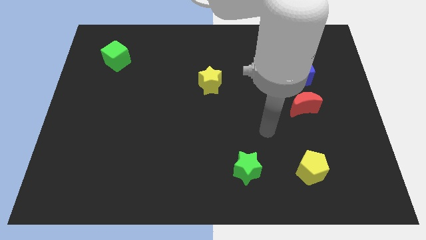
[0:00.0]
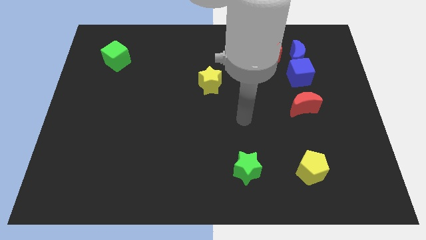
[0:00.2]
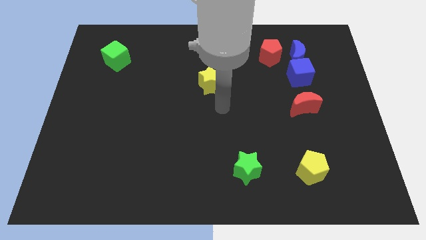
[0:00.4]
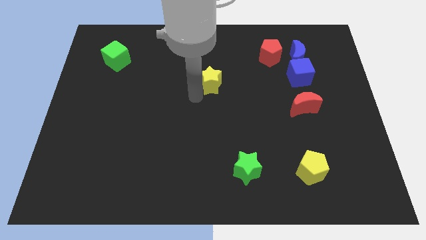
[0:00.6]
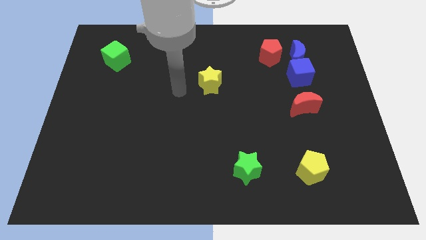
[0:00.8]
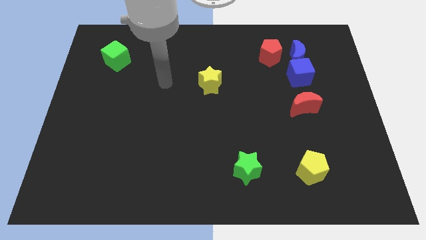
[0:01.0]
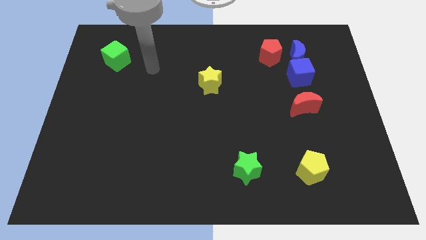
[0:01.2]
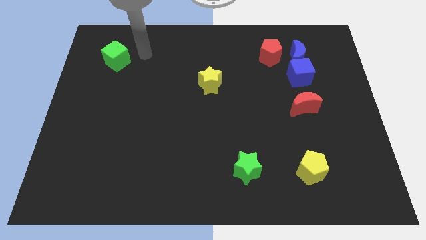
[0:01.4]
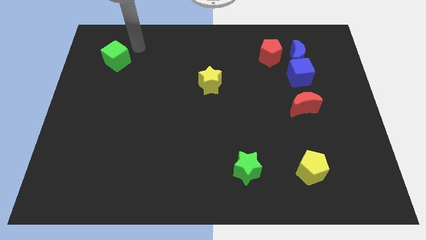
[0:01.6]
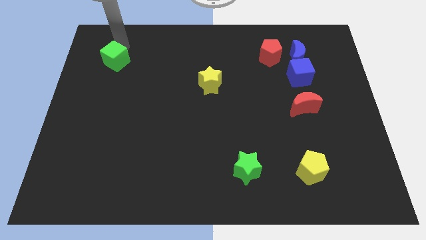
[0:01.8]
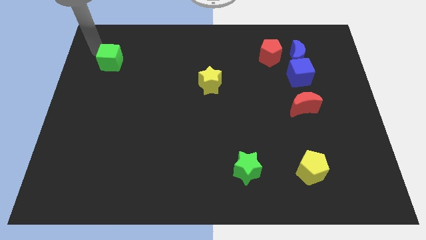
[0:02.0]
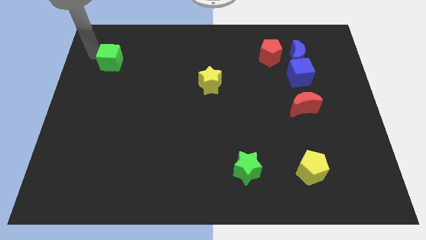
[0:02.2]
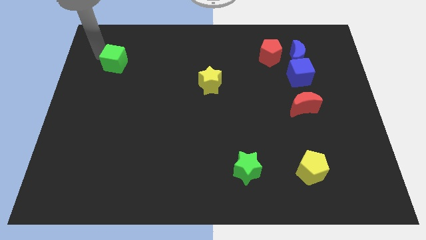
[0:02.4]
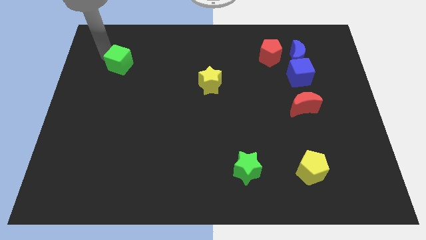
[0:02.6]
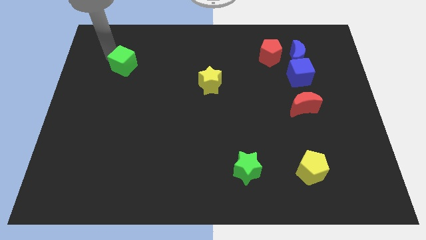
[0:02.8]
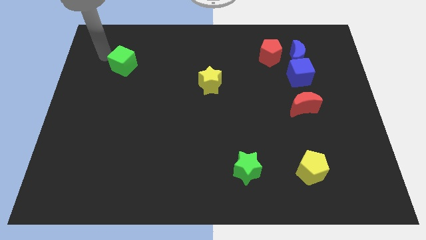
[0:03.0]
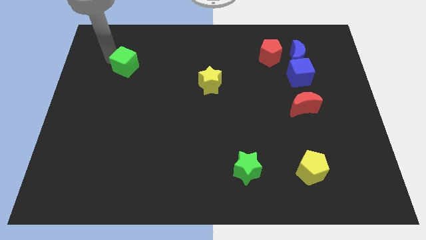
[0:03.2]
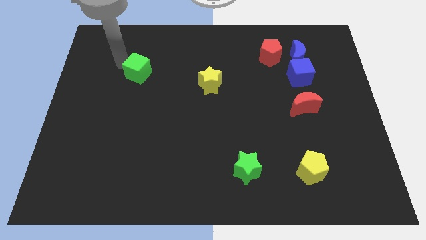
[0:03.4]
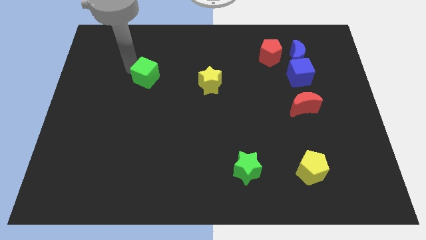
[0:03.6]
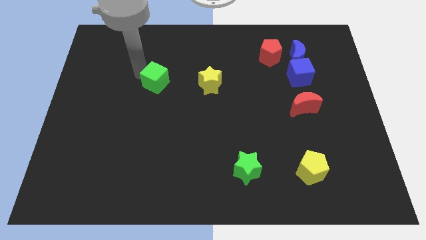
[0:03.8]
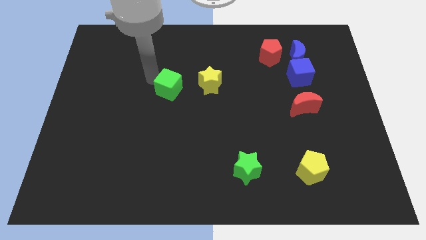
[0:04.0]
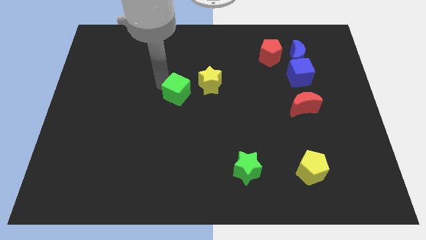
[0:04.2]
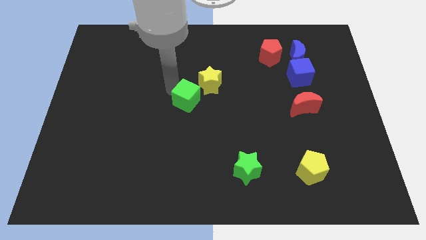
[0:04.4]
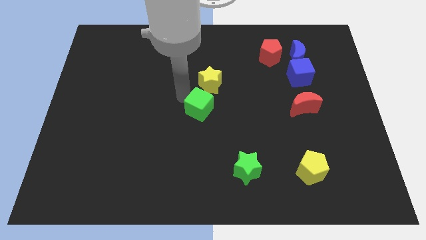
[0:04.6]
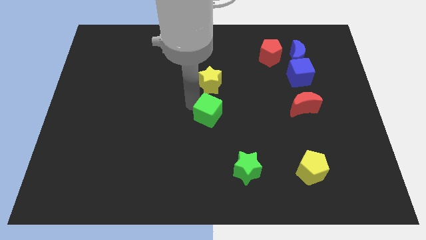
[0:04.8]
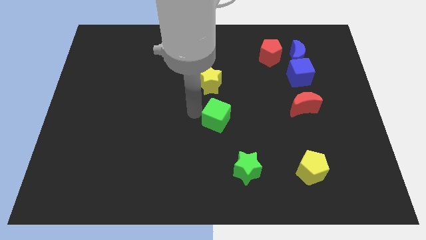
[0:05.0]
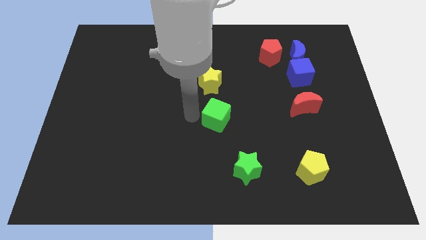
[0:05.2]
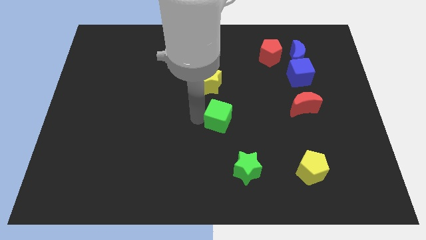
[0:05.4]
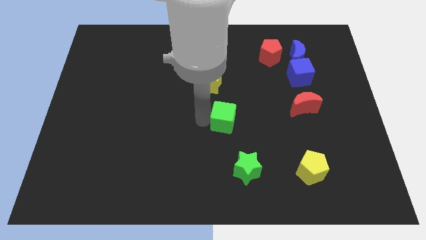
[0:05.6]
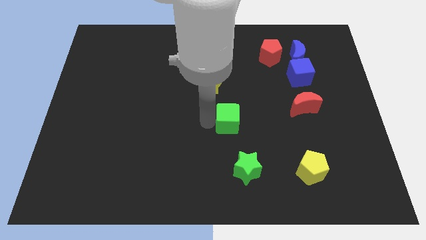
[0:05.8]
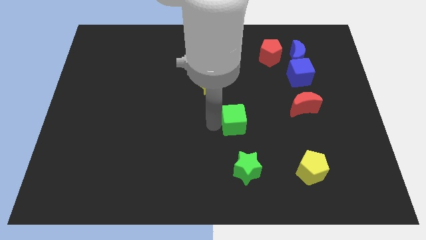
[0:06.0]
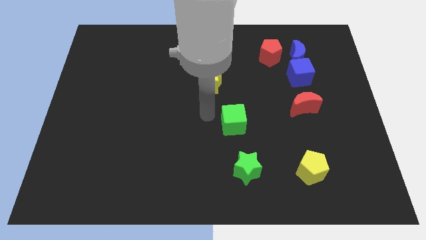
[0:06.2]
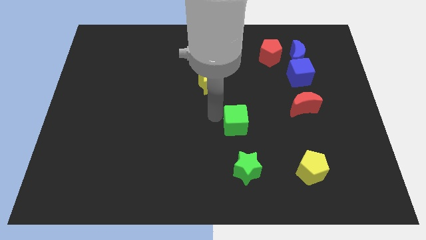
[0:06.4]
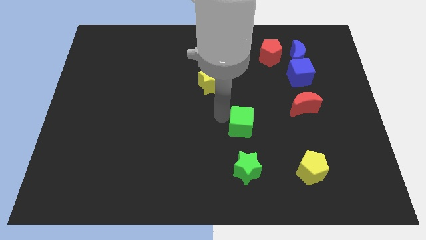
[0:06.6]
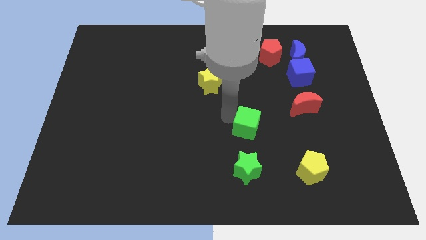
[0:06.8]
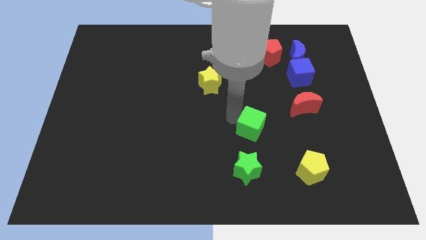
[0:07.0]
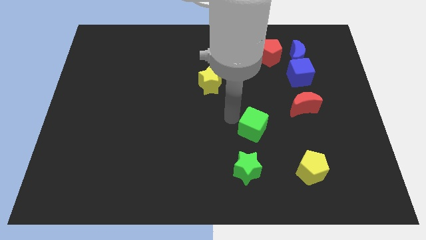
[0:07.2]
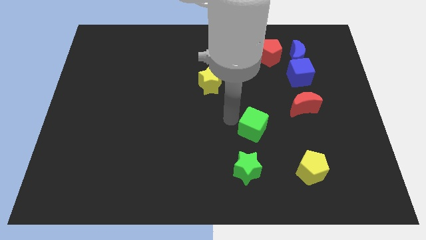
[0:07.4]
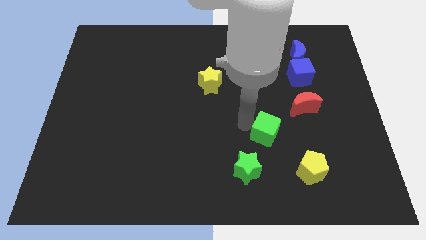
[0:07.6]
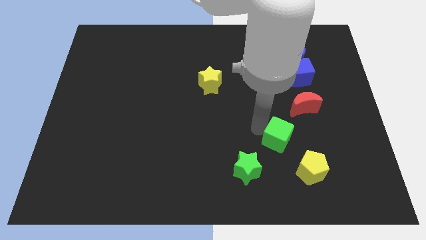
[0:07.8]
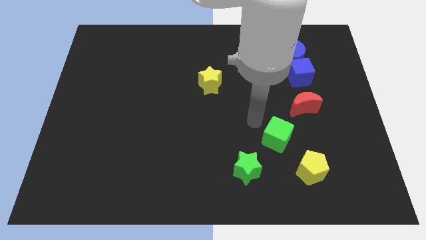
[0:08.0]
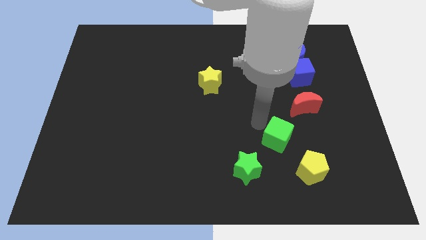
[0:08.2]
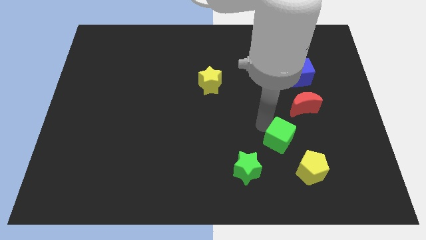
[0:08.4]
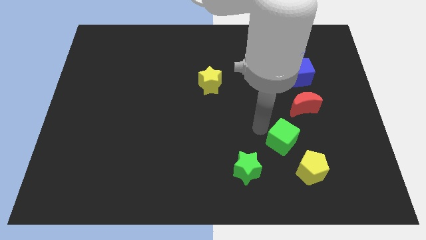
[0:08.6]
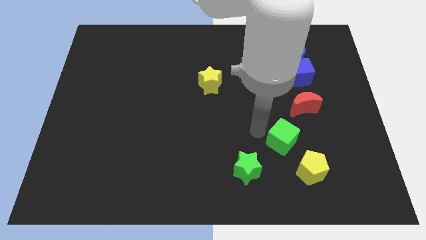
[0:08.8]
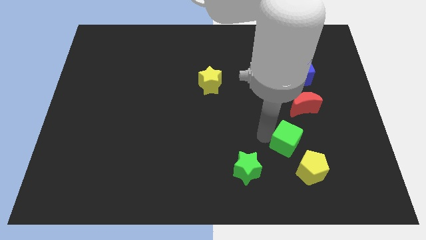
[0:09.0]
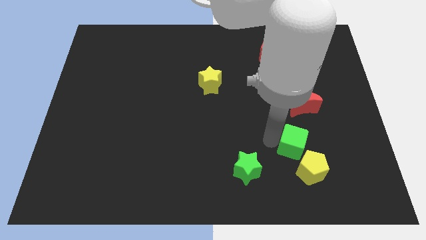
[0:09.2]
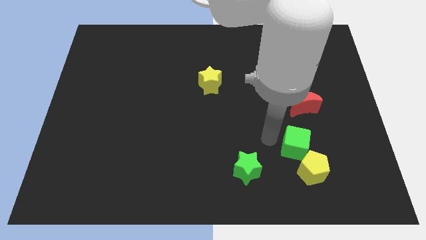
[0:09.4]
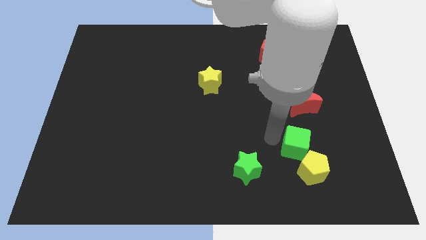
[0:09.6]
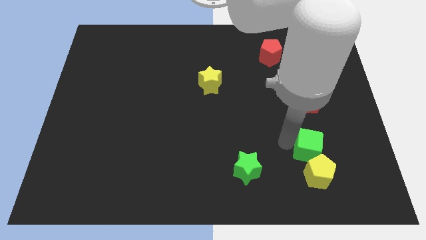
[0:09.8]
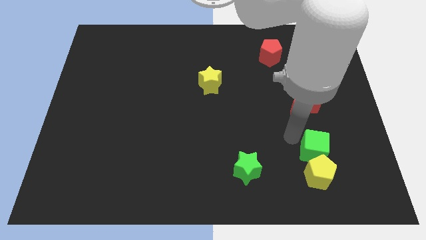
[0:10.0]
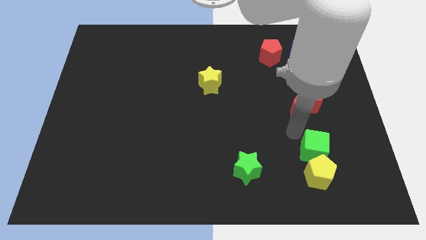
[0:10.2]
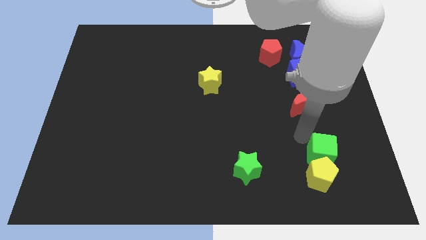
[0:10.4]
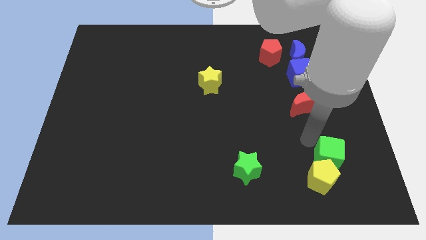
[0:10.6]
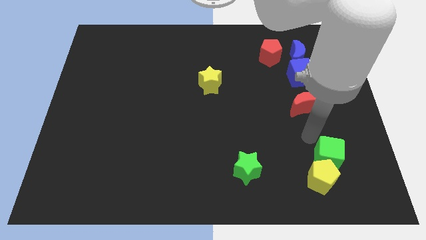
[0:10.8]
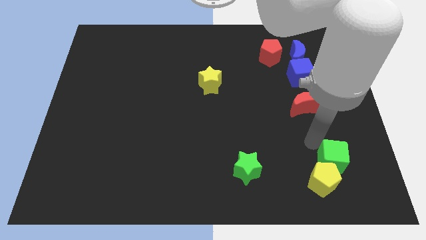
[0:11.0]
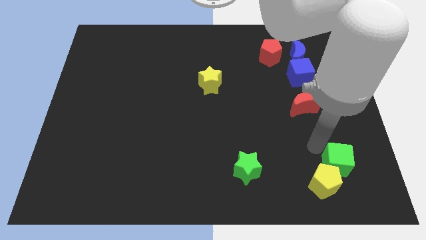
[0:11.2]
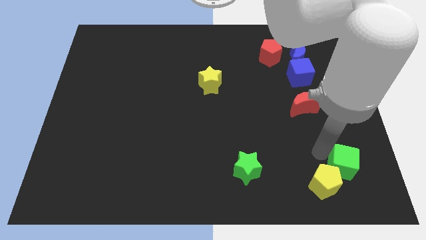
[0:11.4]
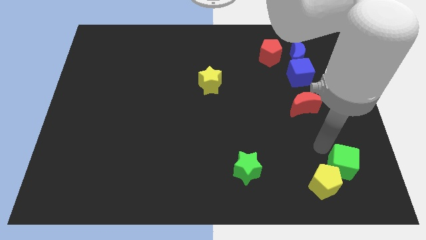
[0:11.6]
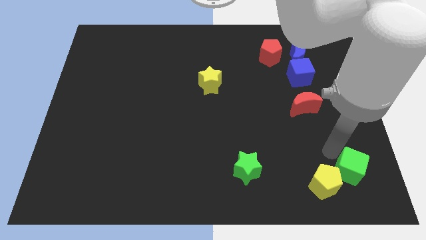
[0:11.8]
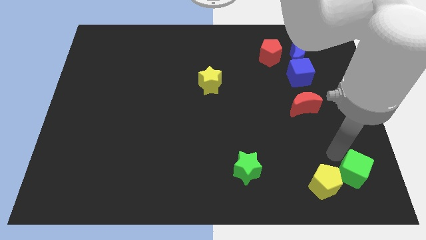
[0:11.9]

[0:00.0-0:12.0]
move the green cube to the bottom right of the board

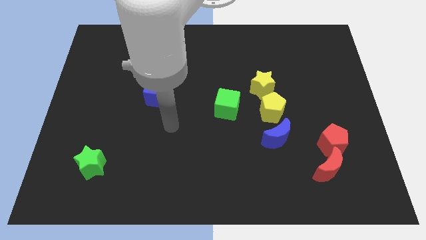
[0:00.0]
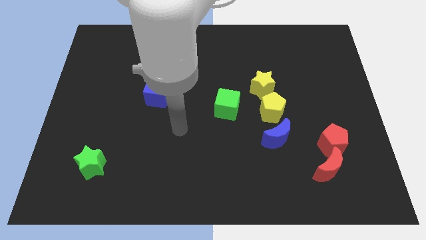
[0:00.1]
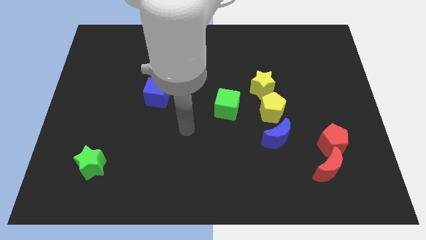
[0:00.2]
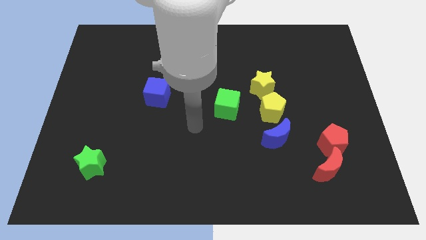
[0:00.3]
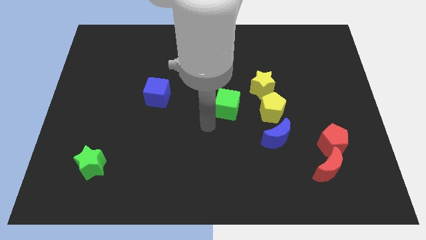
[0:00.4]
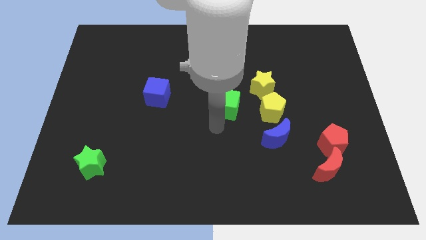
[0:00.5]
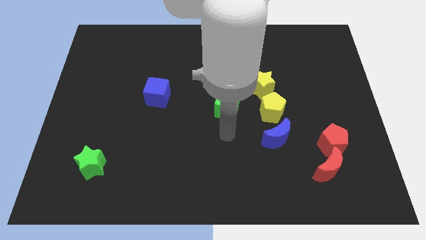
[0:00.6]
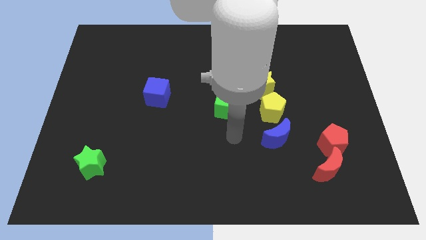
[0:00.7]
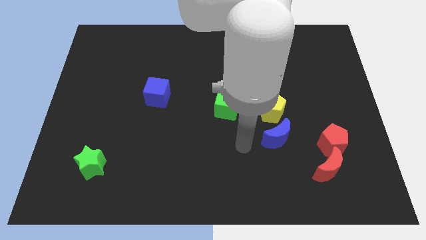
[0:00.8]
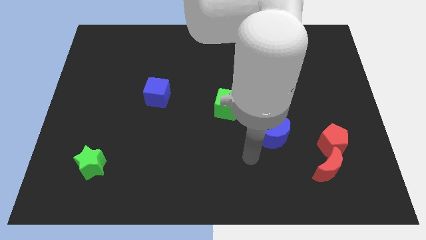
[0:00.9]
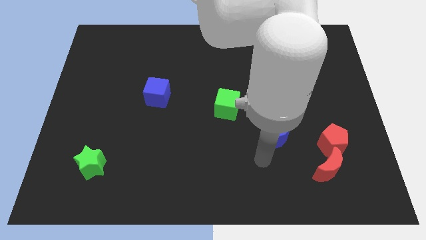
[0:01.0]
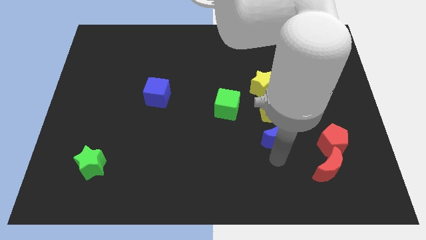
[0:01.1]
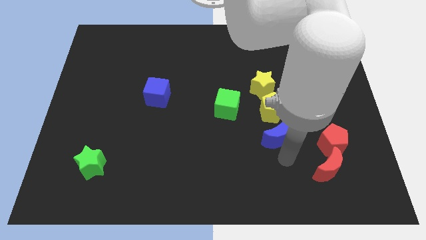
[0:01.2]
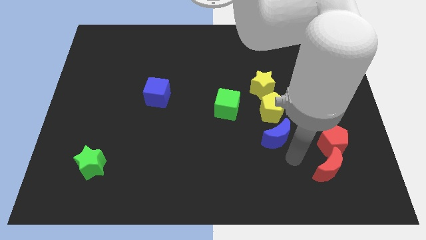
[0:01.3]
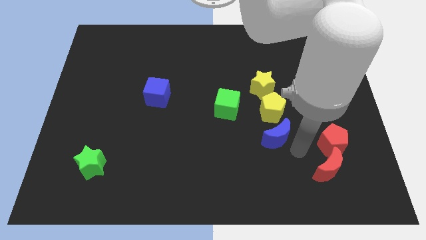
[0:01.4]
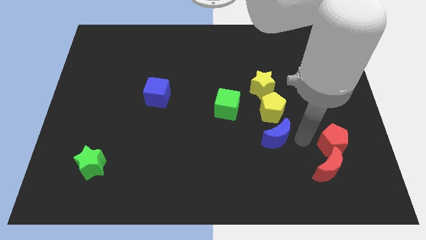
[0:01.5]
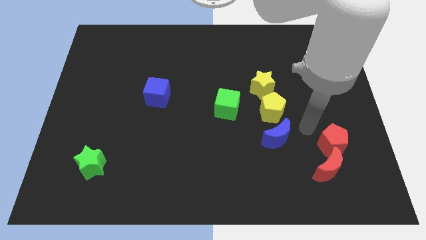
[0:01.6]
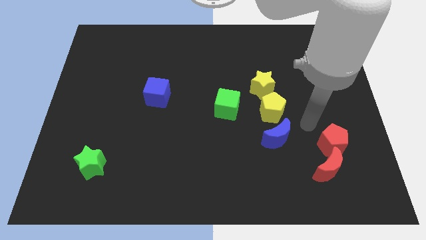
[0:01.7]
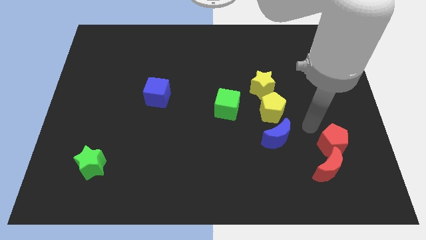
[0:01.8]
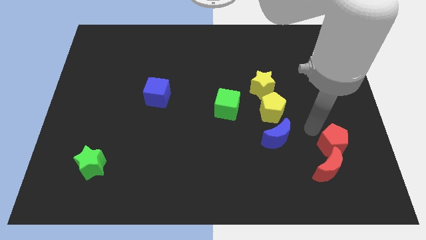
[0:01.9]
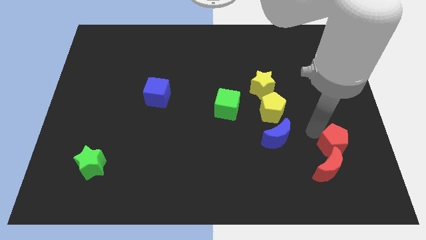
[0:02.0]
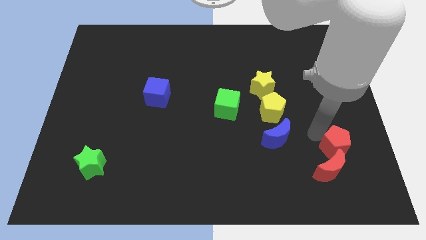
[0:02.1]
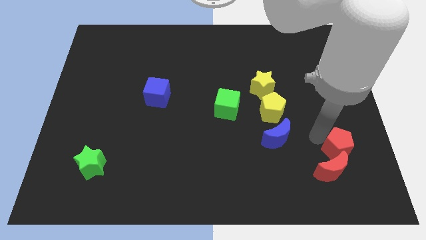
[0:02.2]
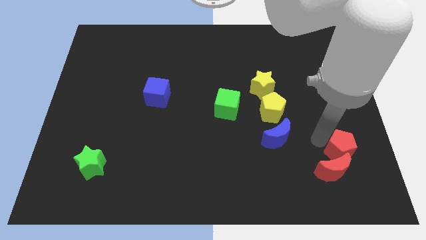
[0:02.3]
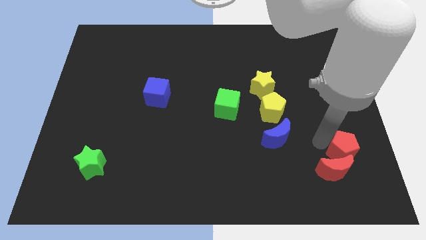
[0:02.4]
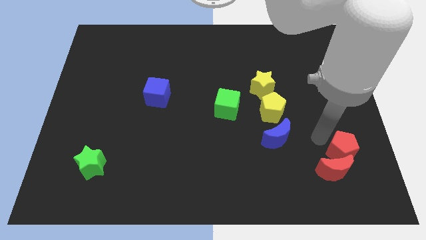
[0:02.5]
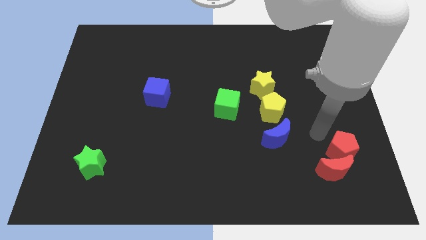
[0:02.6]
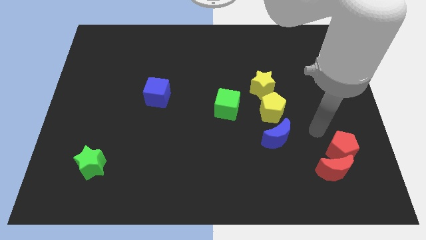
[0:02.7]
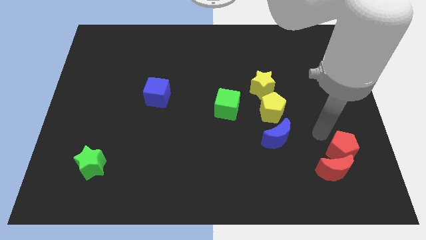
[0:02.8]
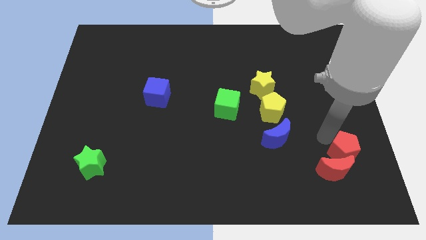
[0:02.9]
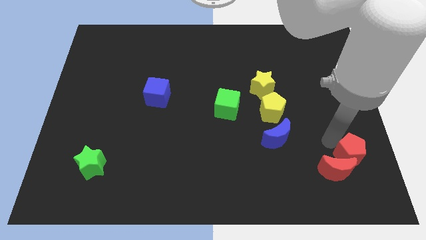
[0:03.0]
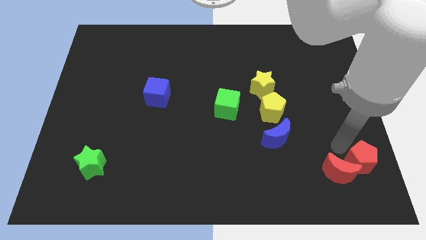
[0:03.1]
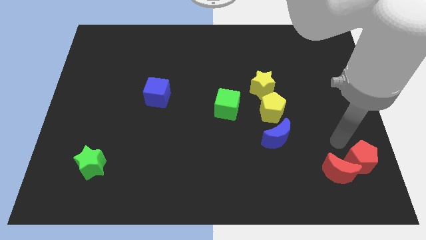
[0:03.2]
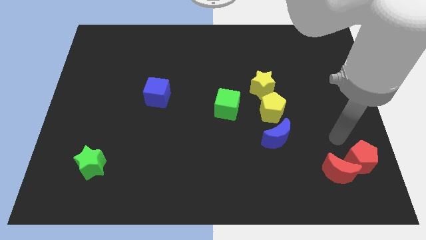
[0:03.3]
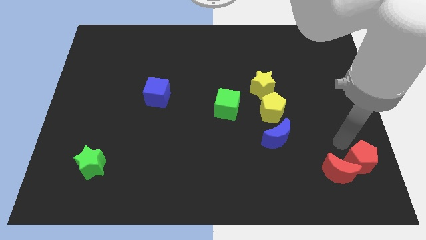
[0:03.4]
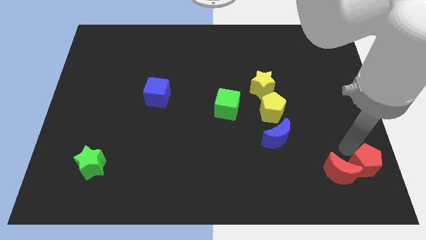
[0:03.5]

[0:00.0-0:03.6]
move the red pentagon to the bottom right of the board
